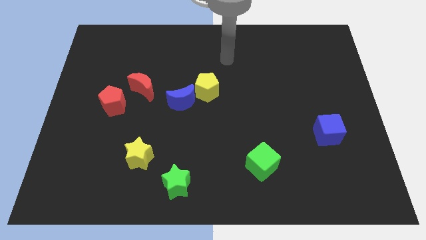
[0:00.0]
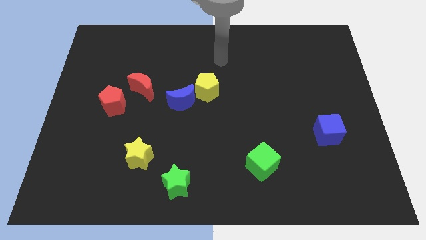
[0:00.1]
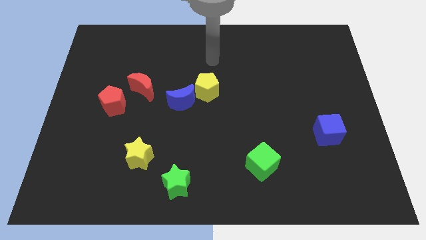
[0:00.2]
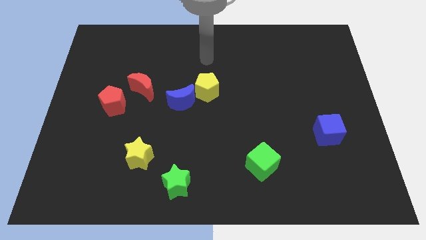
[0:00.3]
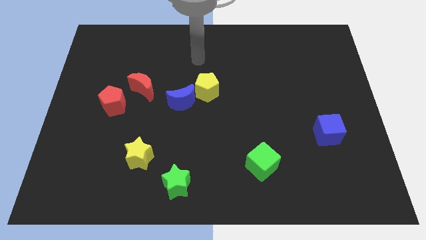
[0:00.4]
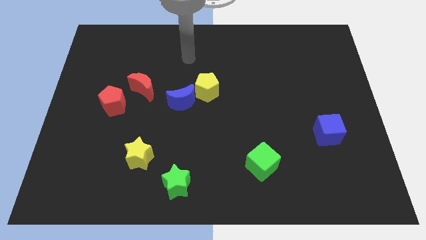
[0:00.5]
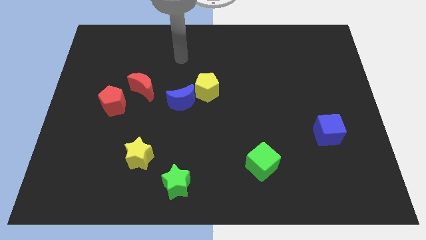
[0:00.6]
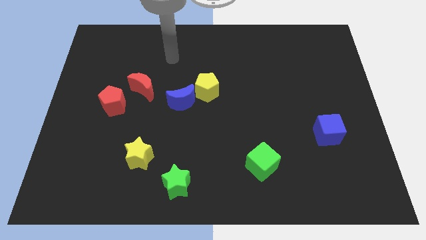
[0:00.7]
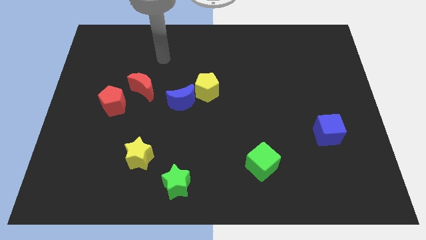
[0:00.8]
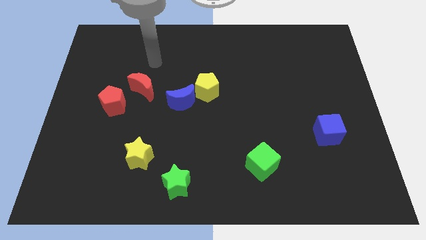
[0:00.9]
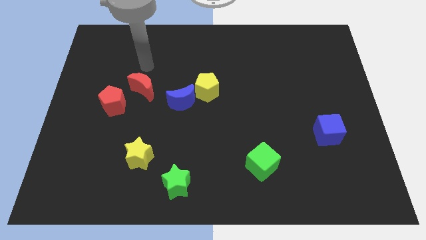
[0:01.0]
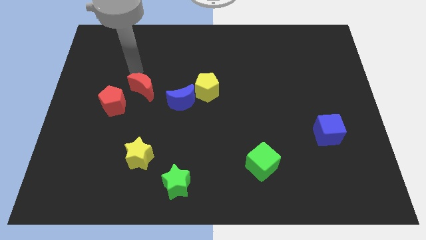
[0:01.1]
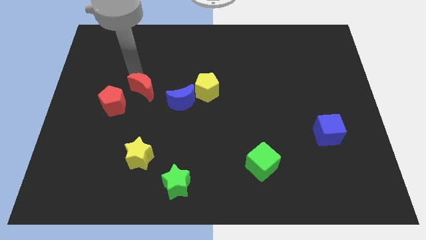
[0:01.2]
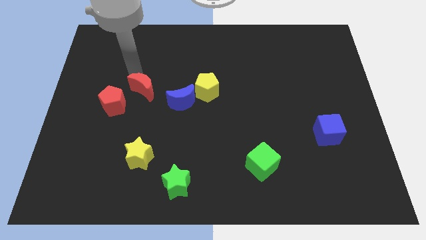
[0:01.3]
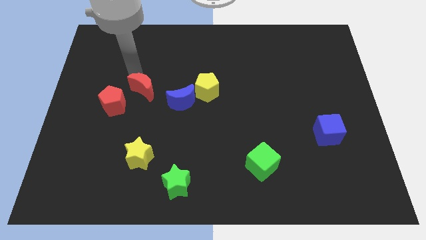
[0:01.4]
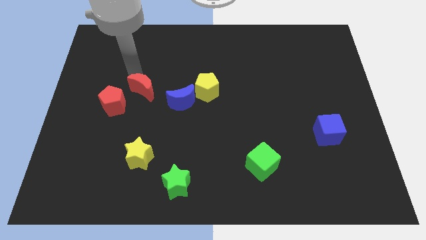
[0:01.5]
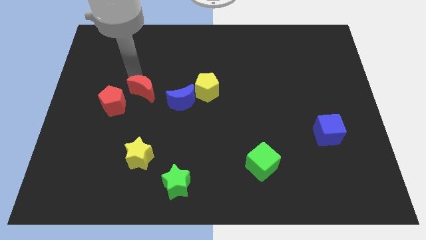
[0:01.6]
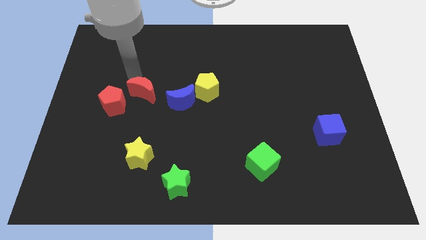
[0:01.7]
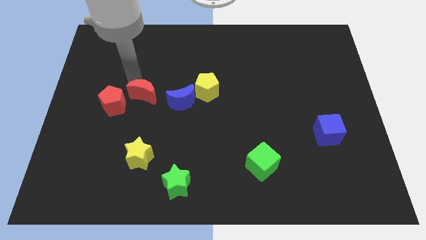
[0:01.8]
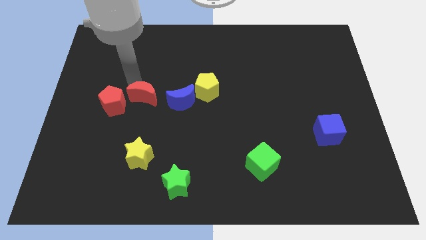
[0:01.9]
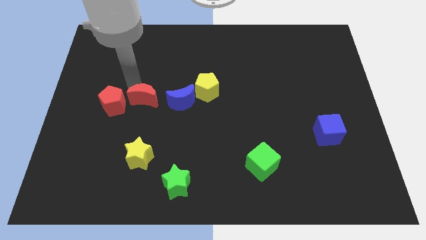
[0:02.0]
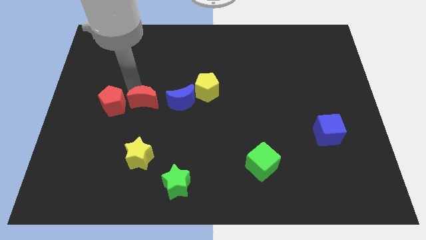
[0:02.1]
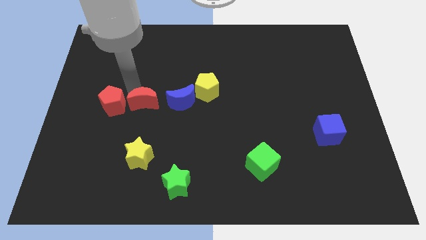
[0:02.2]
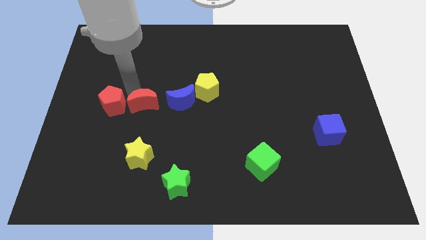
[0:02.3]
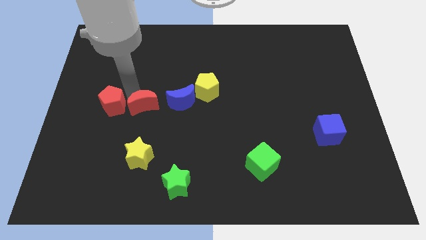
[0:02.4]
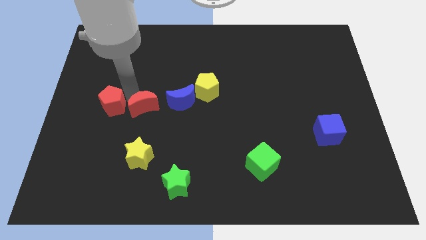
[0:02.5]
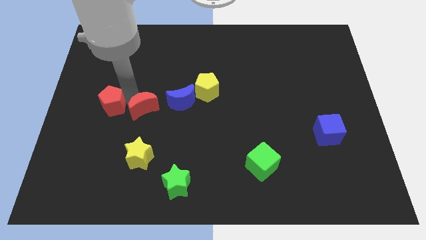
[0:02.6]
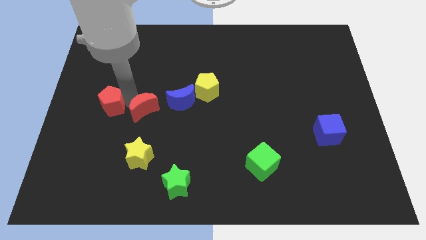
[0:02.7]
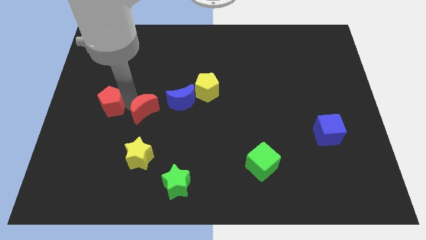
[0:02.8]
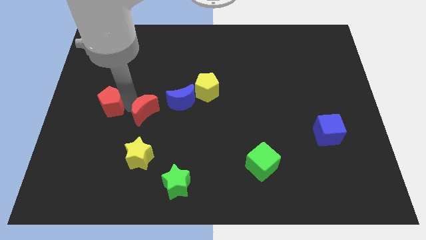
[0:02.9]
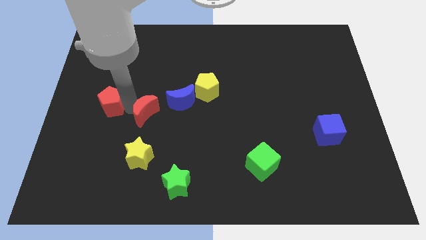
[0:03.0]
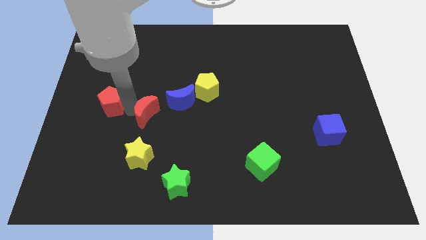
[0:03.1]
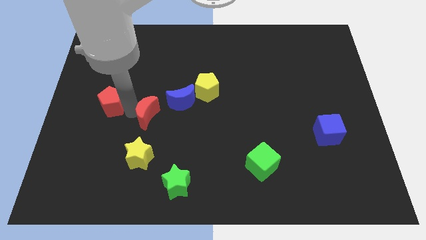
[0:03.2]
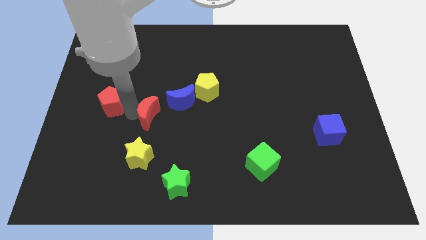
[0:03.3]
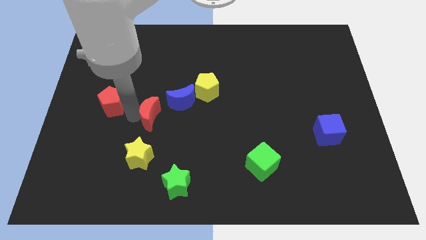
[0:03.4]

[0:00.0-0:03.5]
slightly move the red moon diagonally down and to the right

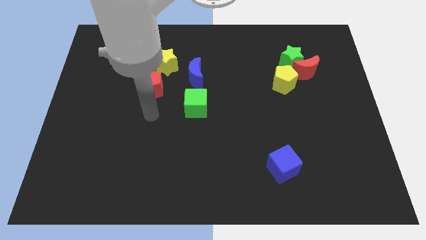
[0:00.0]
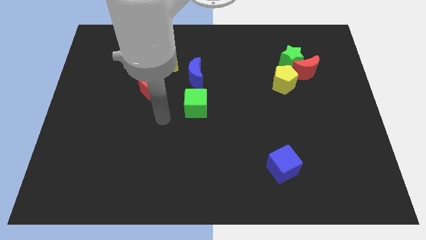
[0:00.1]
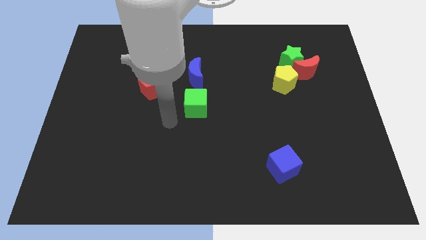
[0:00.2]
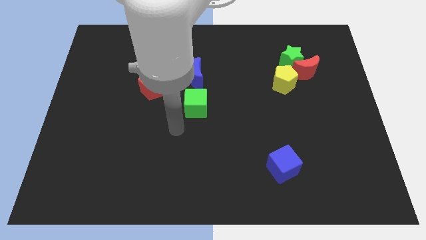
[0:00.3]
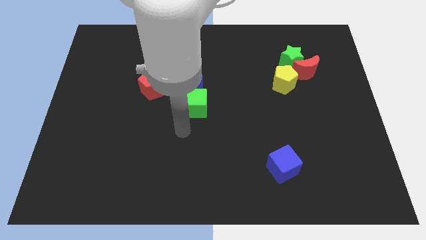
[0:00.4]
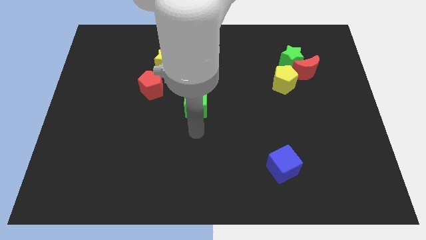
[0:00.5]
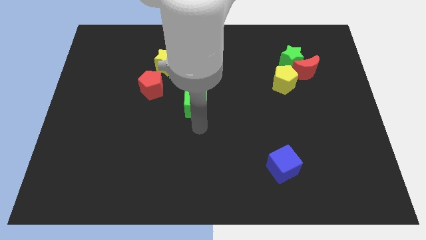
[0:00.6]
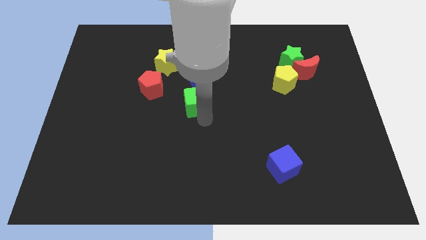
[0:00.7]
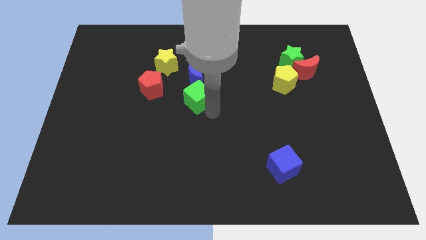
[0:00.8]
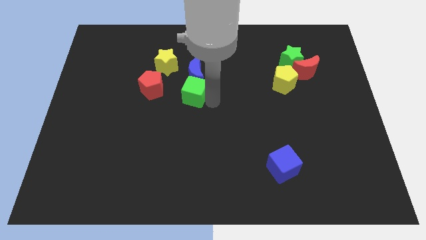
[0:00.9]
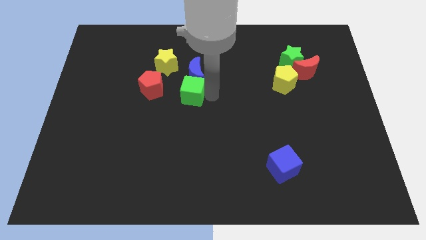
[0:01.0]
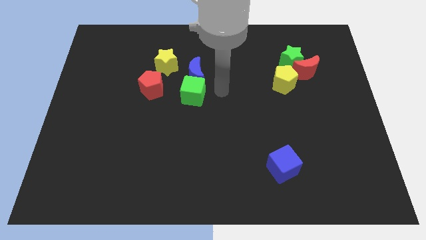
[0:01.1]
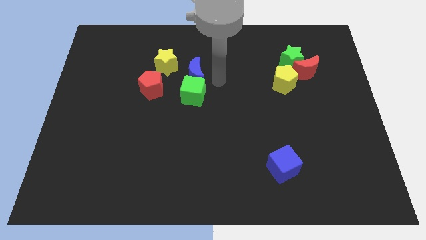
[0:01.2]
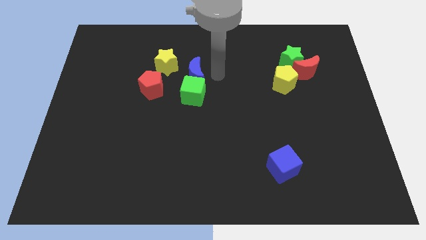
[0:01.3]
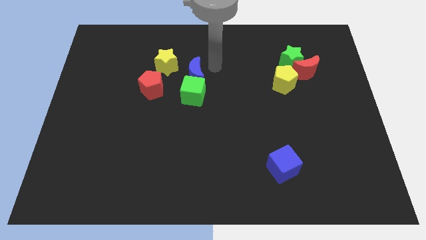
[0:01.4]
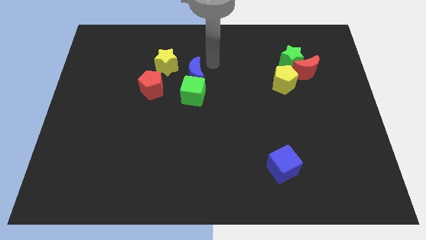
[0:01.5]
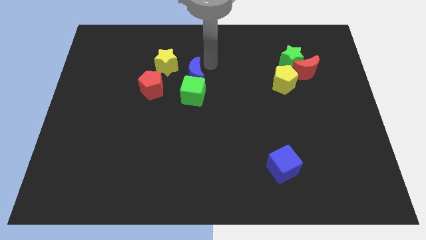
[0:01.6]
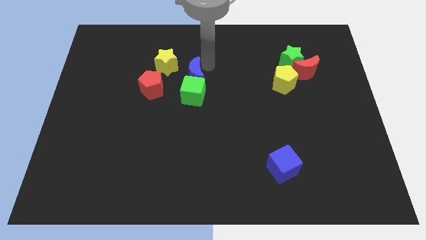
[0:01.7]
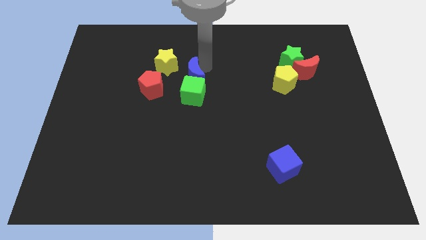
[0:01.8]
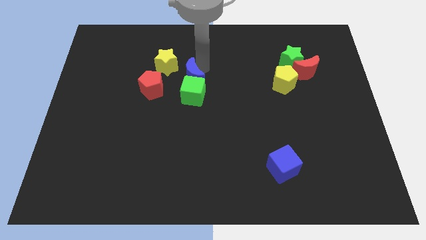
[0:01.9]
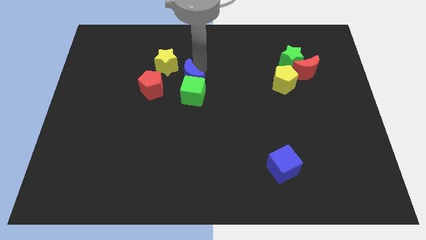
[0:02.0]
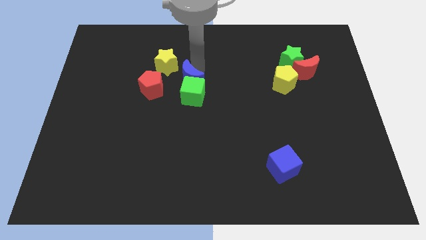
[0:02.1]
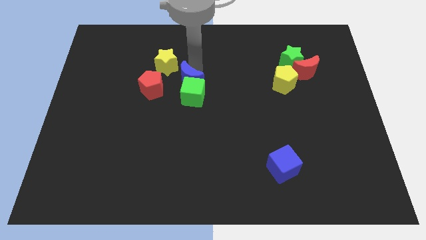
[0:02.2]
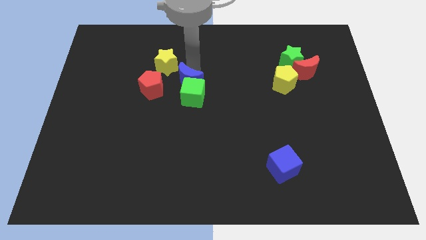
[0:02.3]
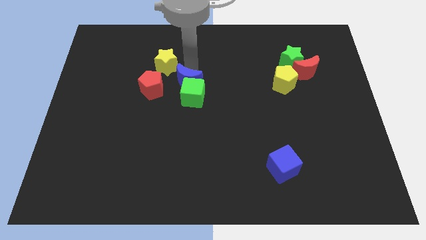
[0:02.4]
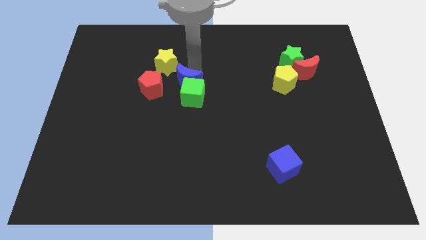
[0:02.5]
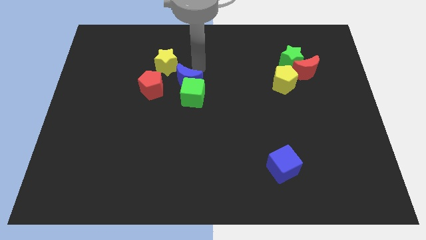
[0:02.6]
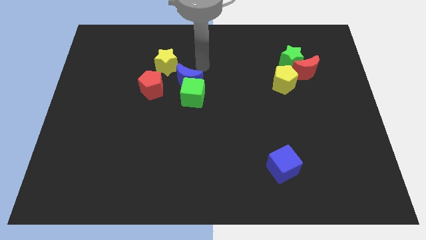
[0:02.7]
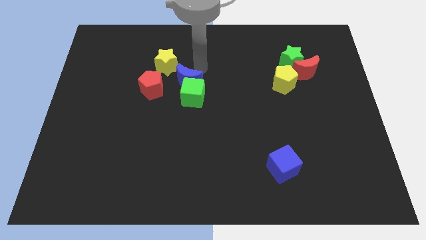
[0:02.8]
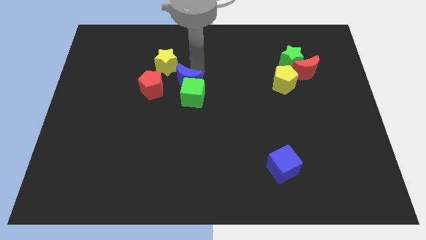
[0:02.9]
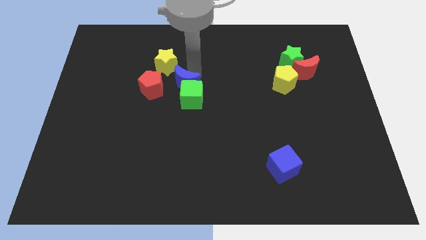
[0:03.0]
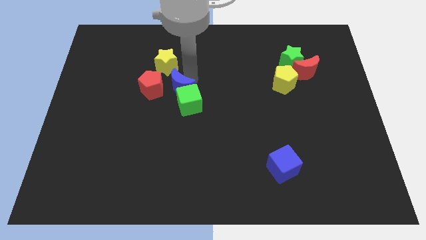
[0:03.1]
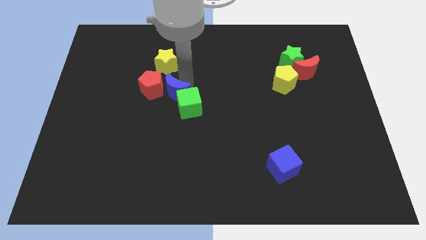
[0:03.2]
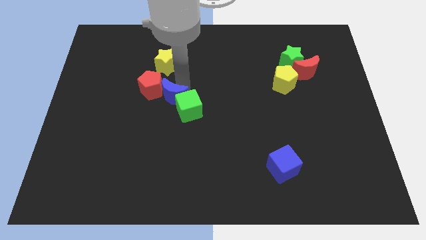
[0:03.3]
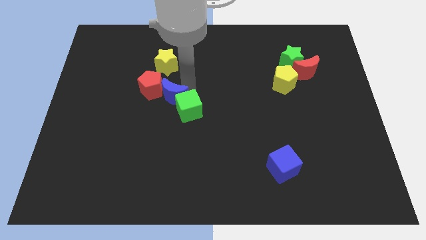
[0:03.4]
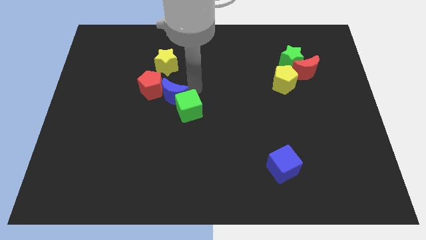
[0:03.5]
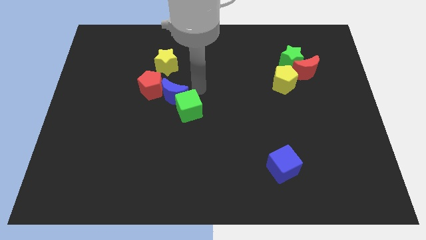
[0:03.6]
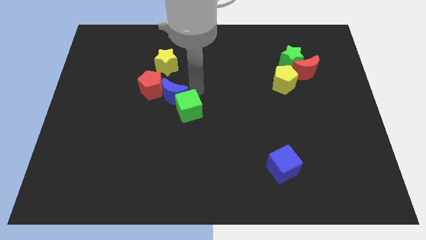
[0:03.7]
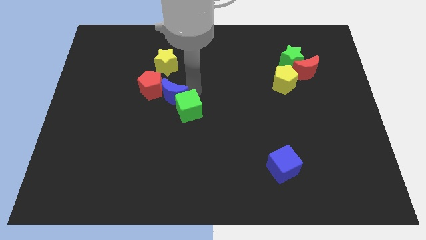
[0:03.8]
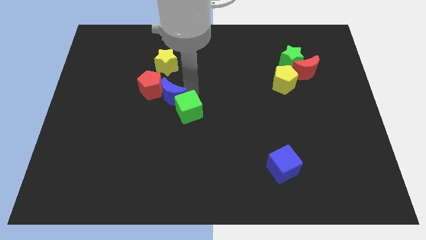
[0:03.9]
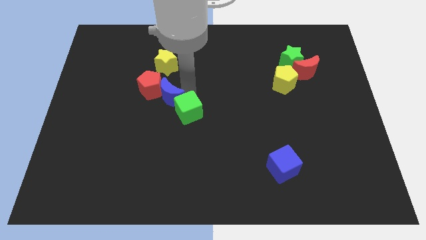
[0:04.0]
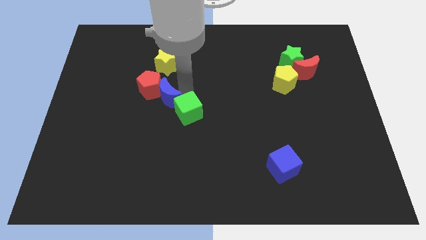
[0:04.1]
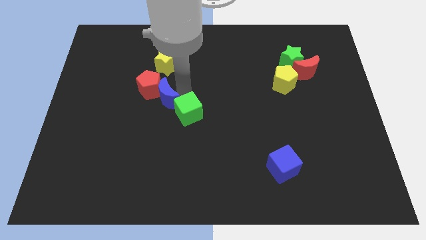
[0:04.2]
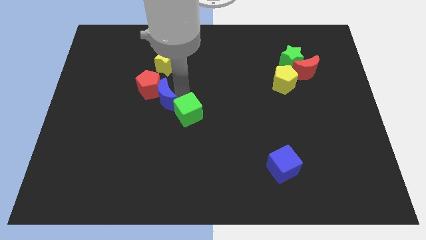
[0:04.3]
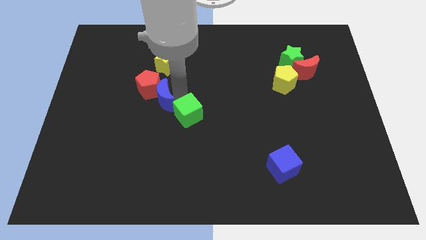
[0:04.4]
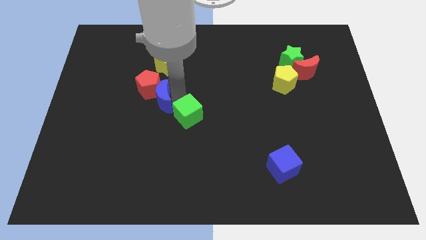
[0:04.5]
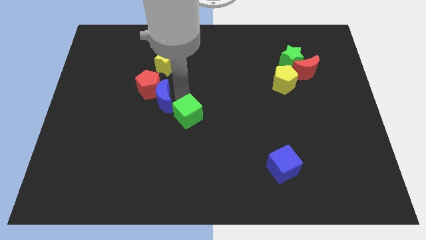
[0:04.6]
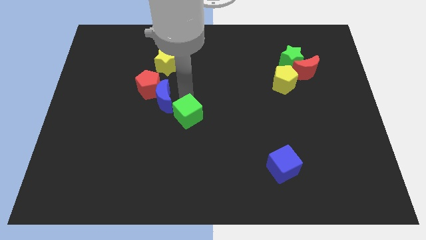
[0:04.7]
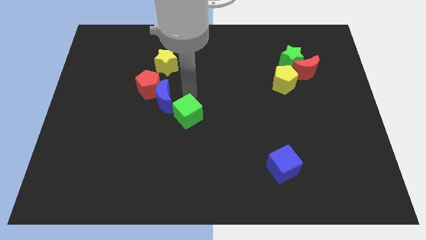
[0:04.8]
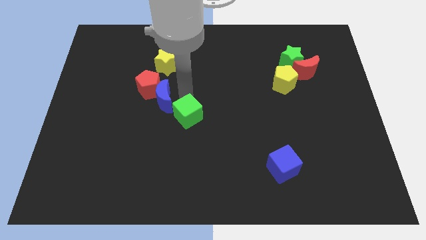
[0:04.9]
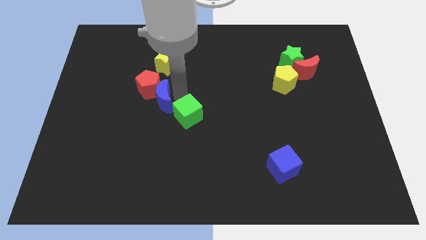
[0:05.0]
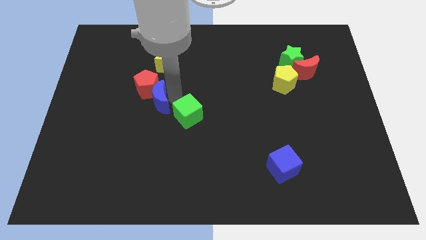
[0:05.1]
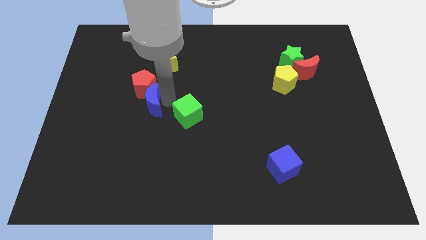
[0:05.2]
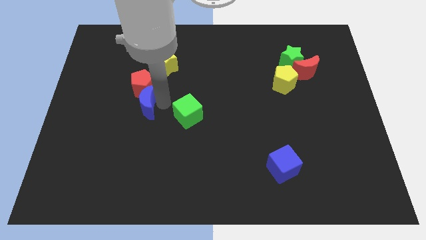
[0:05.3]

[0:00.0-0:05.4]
move the blue moon to the left a bit
